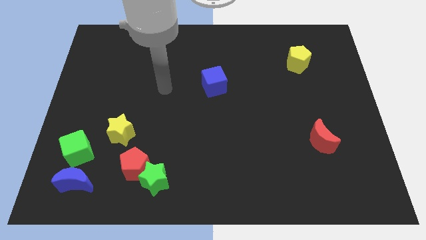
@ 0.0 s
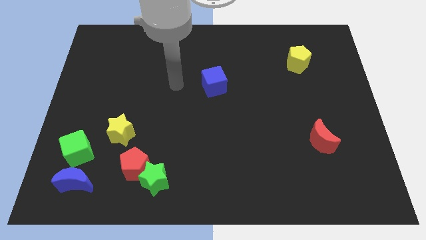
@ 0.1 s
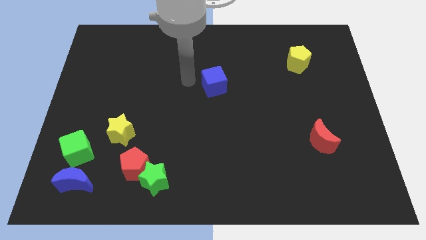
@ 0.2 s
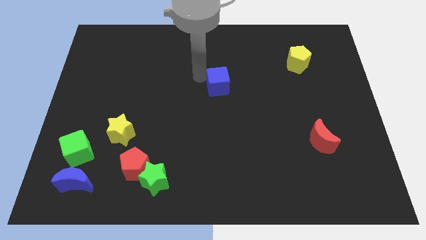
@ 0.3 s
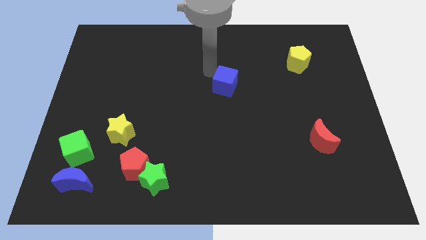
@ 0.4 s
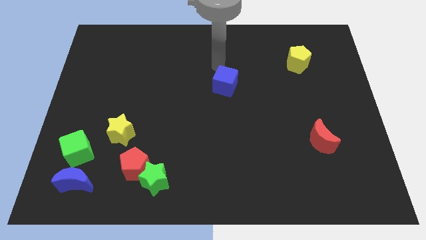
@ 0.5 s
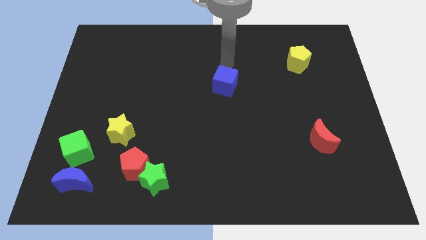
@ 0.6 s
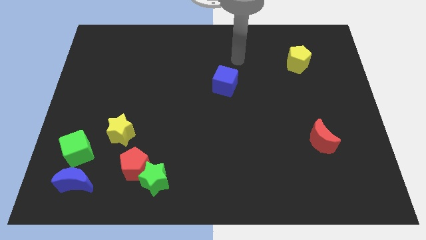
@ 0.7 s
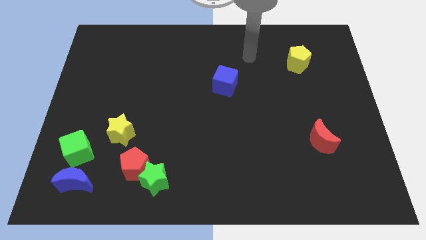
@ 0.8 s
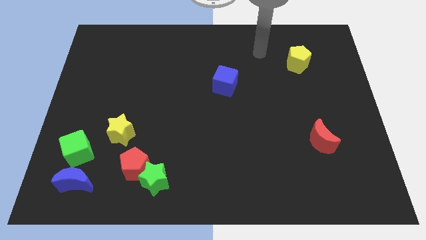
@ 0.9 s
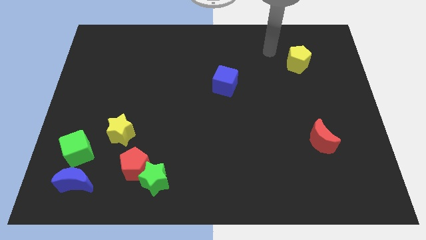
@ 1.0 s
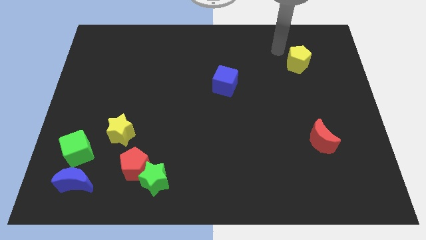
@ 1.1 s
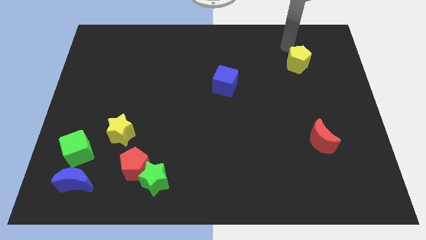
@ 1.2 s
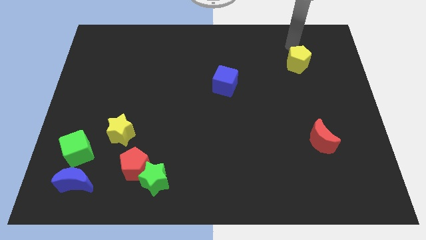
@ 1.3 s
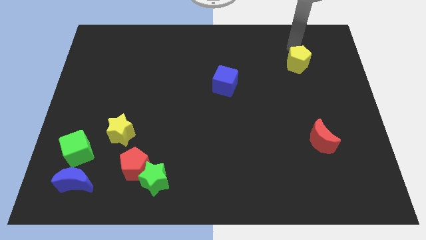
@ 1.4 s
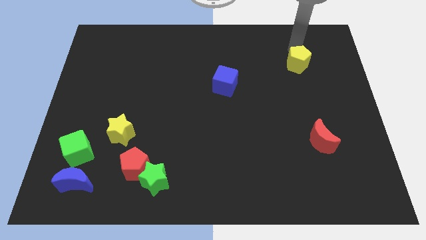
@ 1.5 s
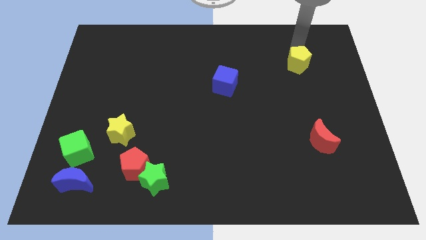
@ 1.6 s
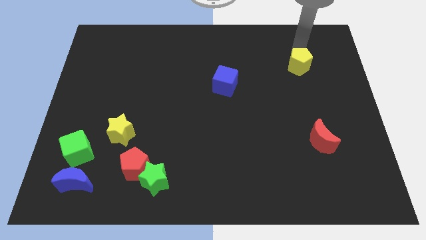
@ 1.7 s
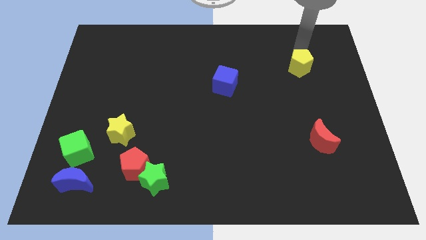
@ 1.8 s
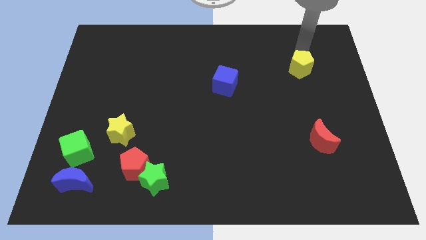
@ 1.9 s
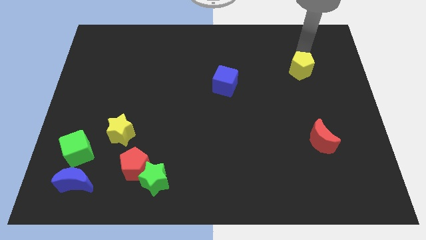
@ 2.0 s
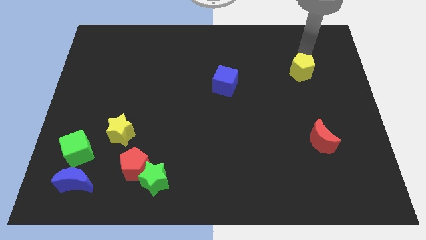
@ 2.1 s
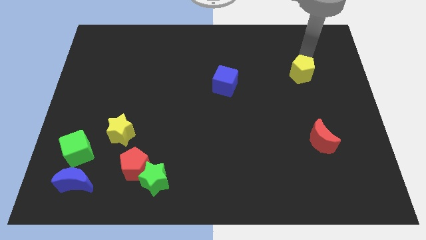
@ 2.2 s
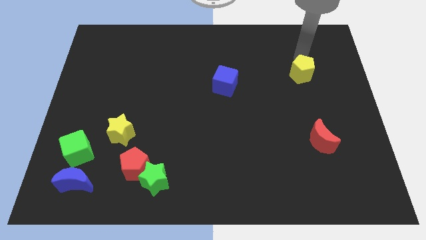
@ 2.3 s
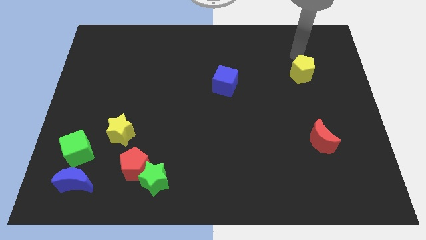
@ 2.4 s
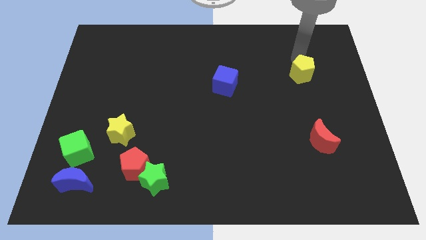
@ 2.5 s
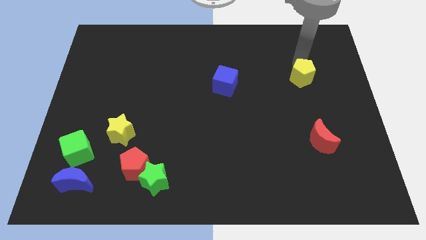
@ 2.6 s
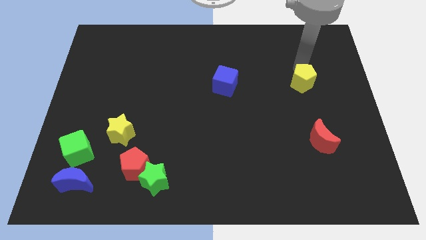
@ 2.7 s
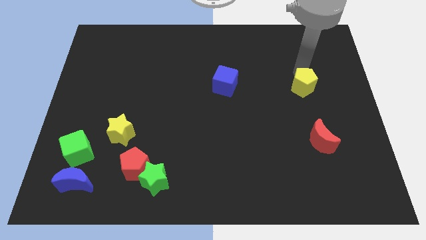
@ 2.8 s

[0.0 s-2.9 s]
move the yellow pentagon a little bit downwards

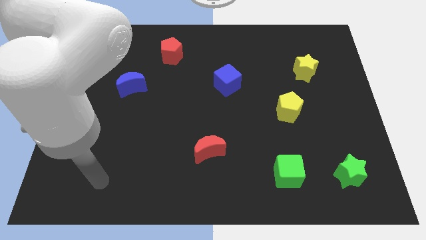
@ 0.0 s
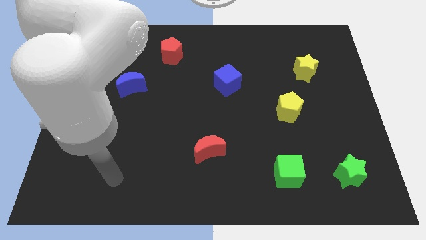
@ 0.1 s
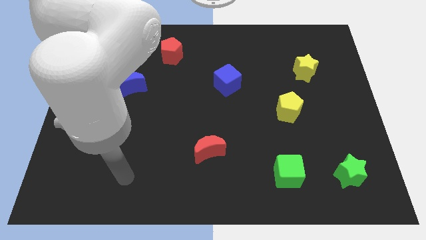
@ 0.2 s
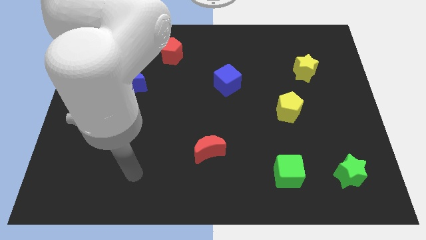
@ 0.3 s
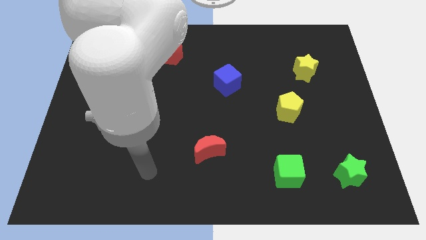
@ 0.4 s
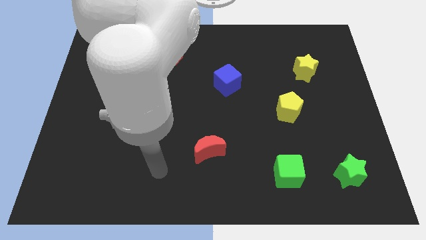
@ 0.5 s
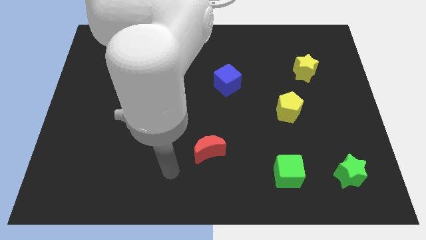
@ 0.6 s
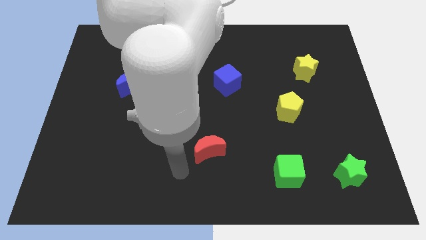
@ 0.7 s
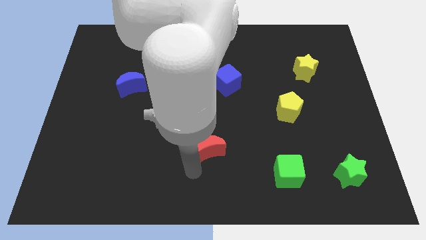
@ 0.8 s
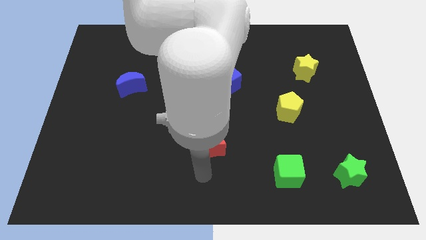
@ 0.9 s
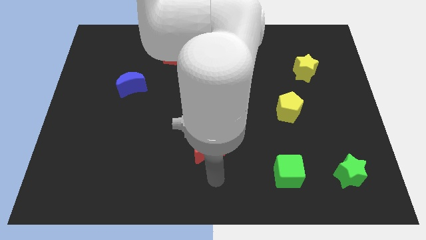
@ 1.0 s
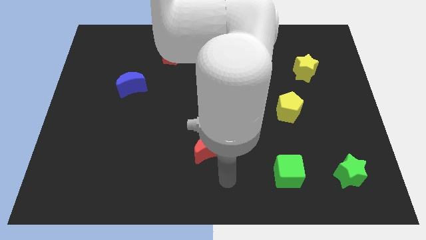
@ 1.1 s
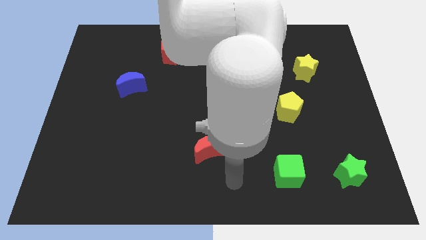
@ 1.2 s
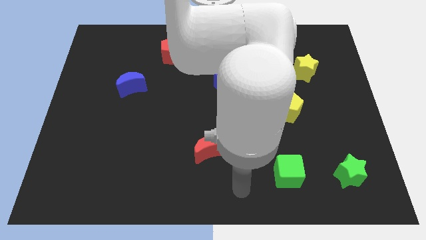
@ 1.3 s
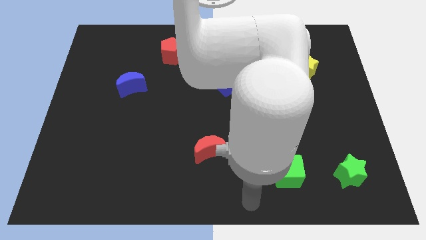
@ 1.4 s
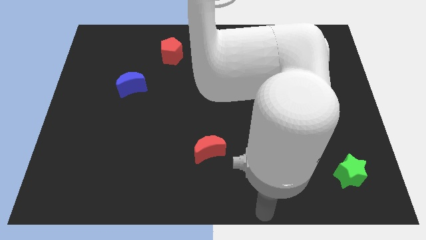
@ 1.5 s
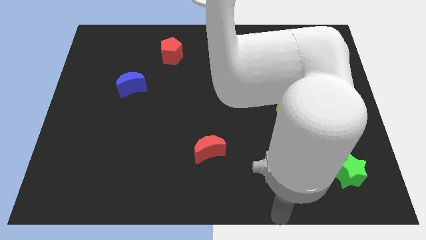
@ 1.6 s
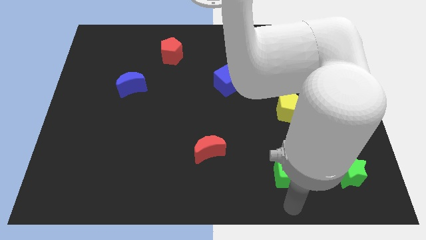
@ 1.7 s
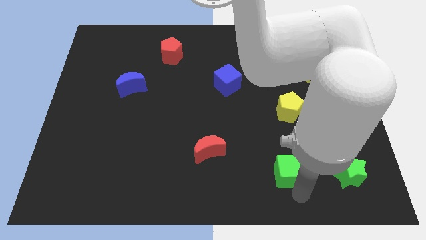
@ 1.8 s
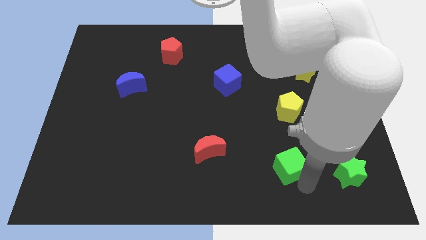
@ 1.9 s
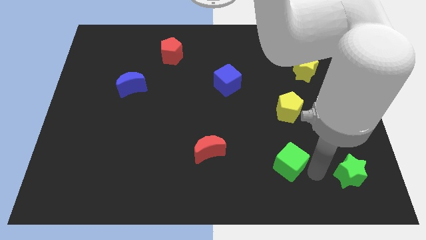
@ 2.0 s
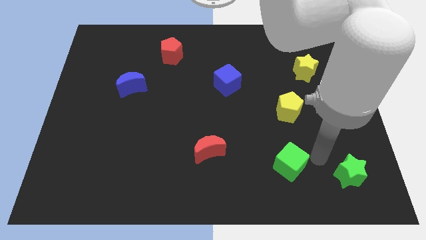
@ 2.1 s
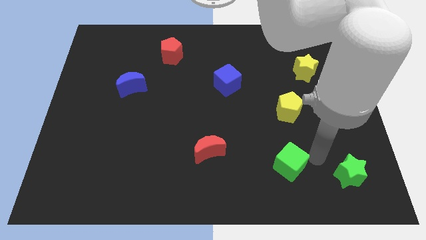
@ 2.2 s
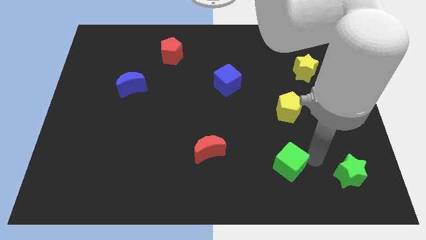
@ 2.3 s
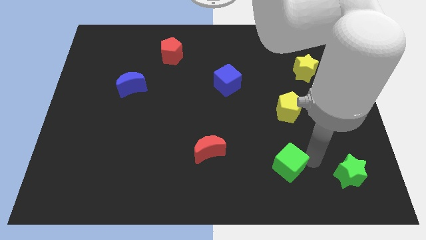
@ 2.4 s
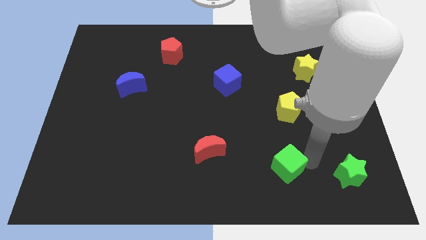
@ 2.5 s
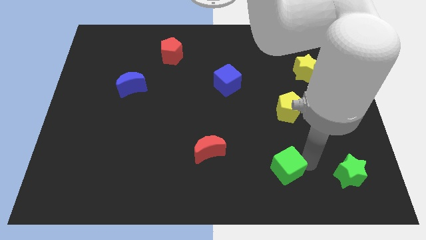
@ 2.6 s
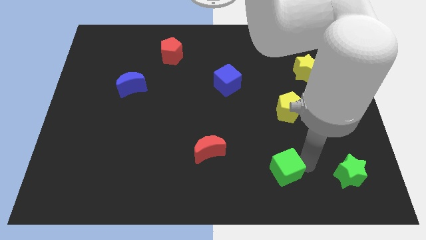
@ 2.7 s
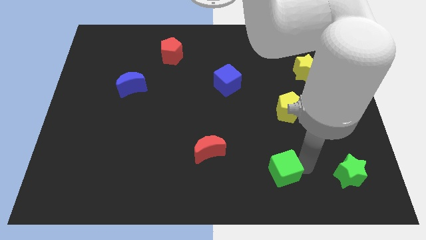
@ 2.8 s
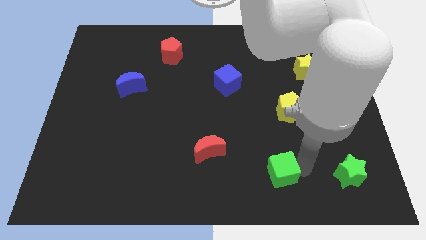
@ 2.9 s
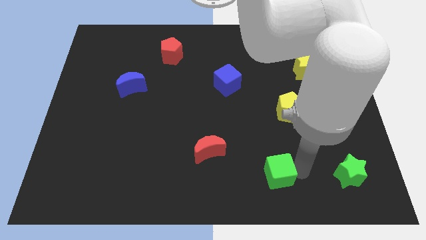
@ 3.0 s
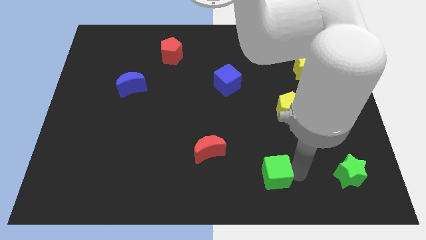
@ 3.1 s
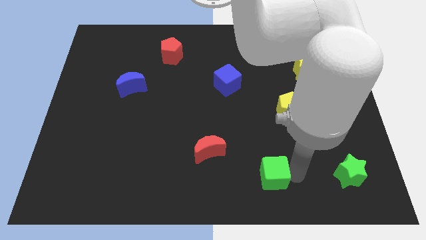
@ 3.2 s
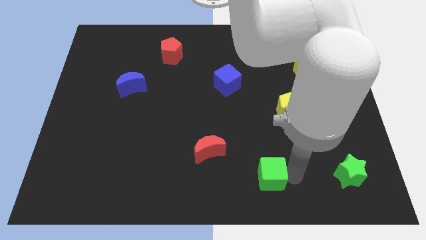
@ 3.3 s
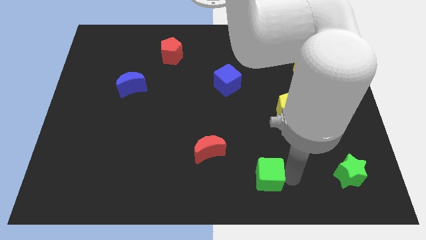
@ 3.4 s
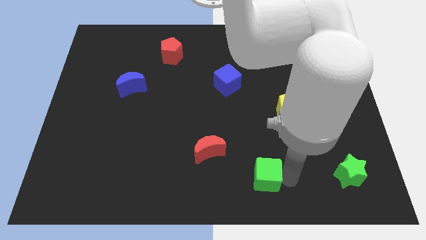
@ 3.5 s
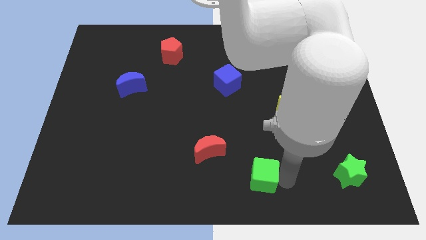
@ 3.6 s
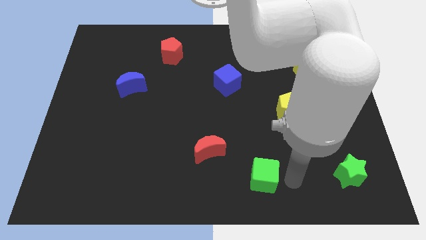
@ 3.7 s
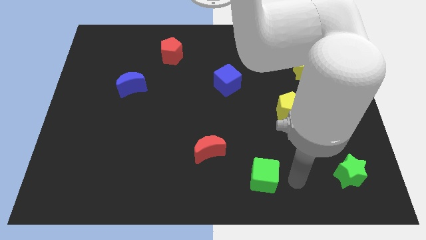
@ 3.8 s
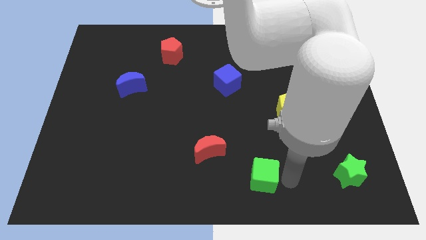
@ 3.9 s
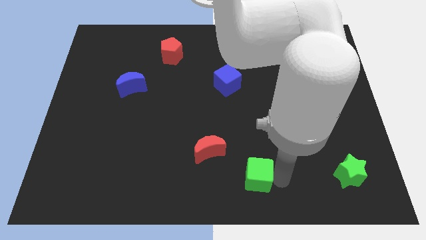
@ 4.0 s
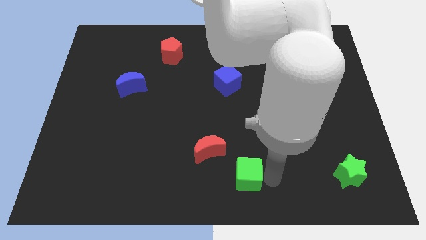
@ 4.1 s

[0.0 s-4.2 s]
move the green cube left a little

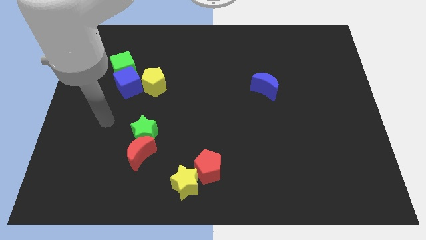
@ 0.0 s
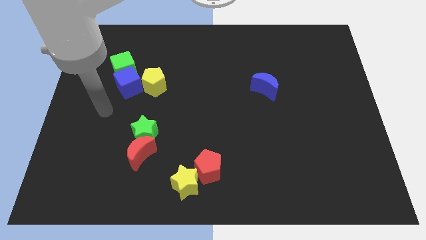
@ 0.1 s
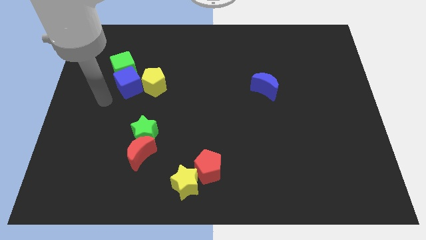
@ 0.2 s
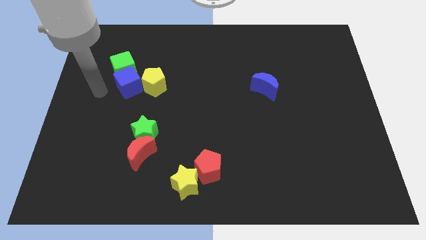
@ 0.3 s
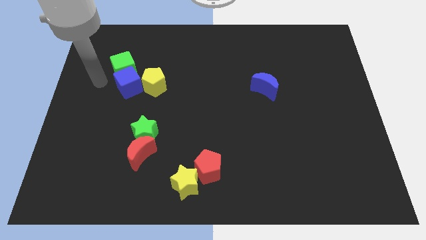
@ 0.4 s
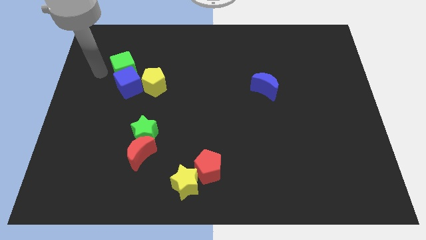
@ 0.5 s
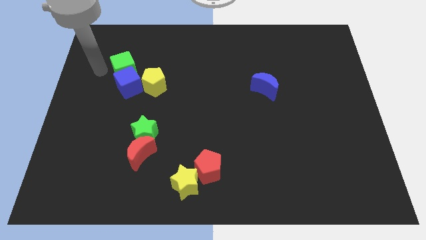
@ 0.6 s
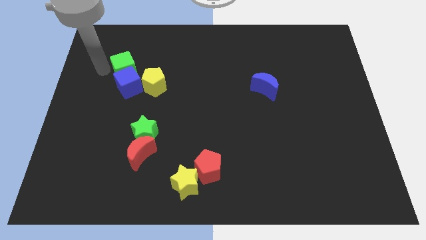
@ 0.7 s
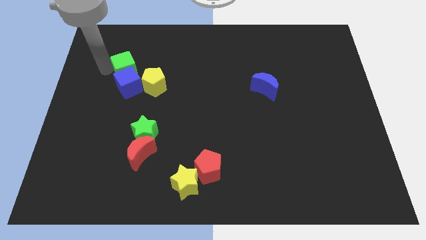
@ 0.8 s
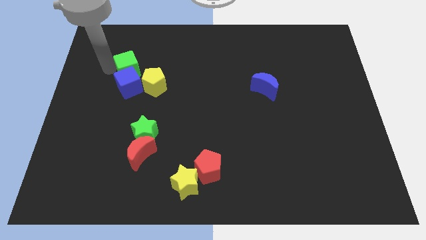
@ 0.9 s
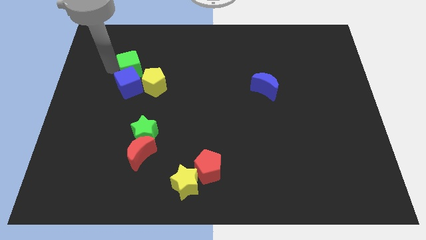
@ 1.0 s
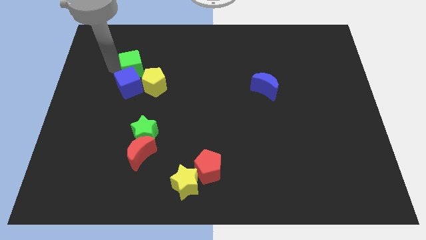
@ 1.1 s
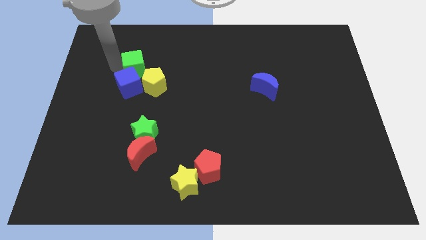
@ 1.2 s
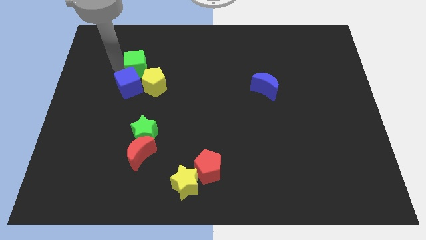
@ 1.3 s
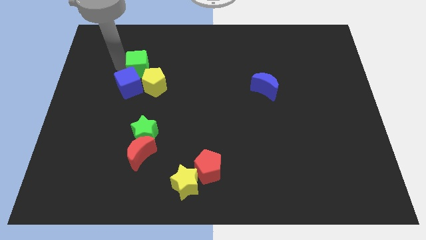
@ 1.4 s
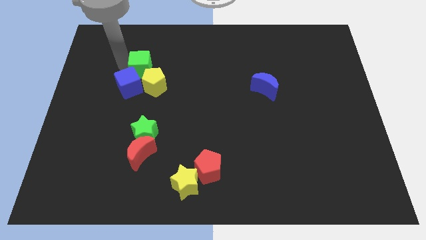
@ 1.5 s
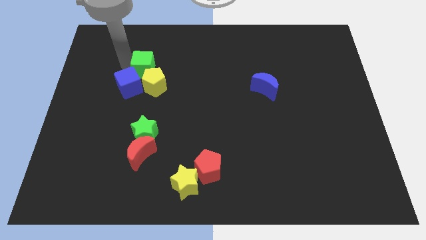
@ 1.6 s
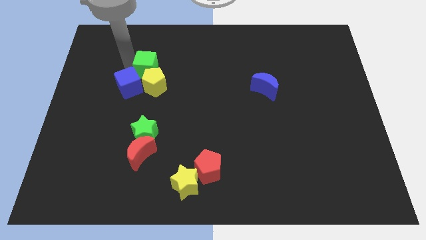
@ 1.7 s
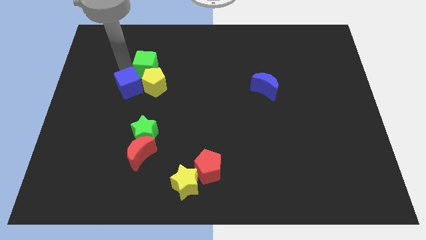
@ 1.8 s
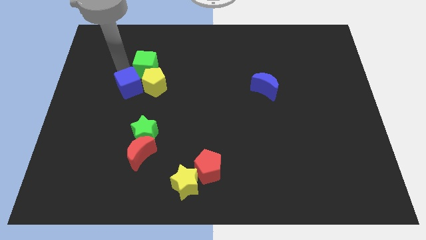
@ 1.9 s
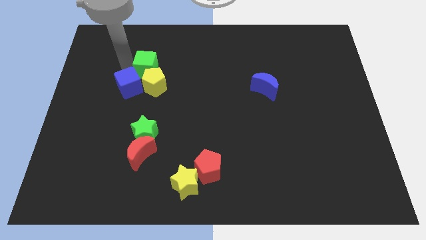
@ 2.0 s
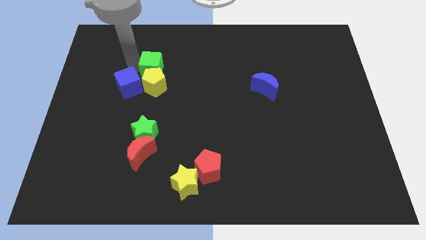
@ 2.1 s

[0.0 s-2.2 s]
push the green cube slightly to the right
